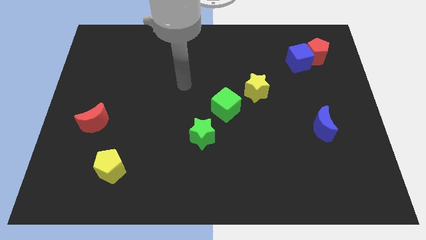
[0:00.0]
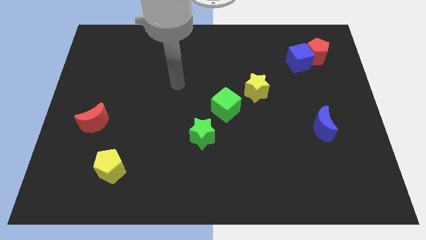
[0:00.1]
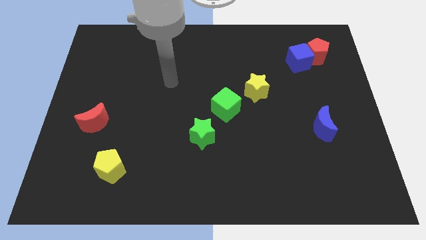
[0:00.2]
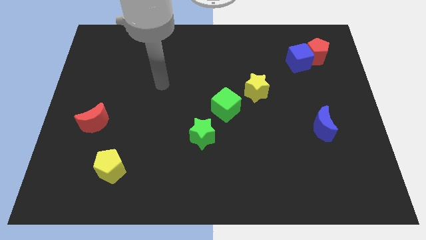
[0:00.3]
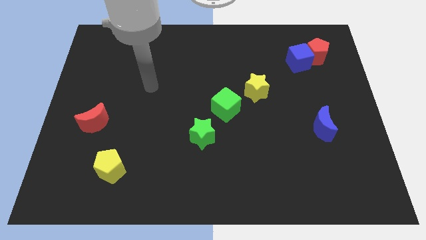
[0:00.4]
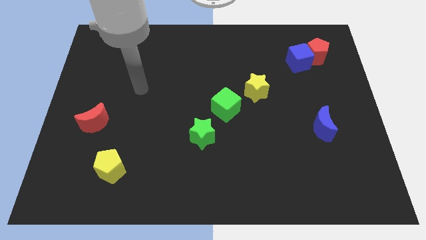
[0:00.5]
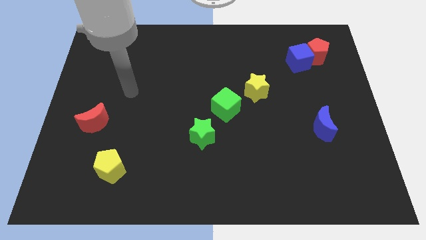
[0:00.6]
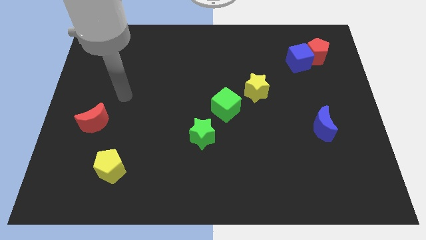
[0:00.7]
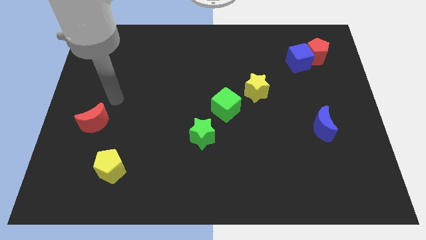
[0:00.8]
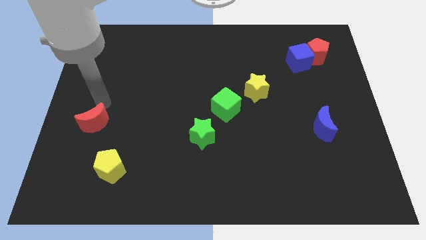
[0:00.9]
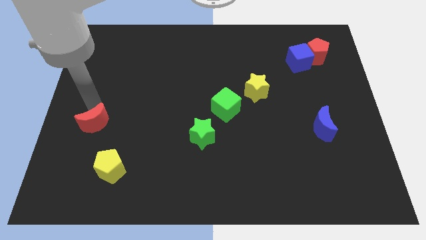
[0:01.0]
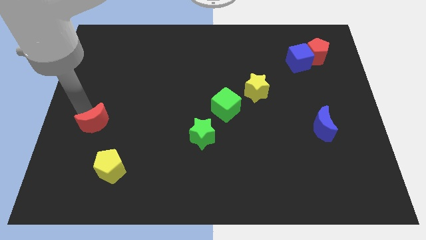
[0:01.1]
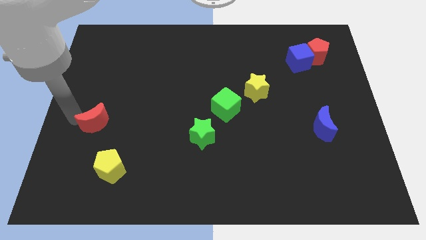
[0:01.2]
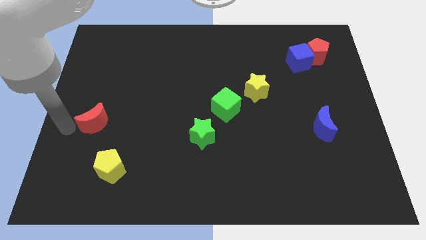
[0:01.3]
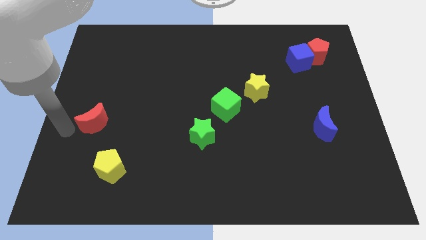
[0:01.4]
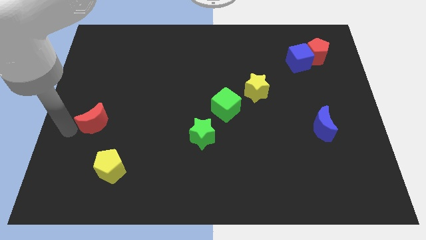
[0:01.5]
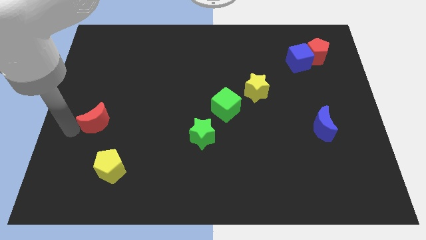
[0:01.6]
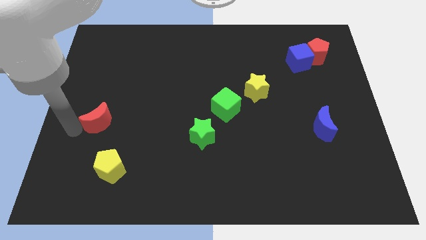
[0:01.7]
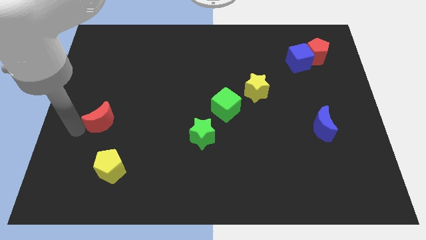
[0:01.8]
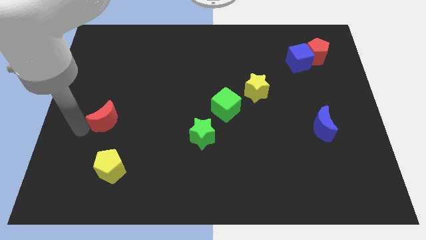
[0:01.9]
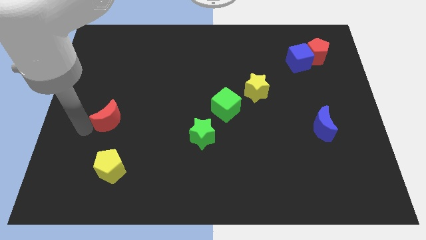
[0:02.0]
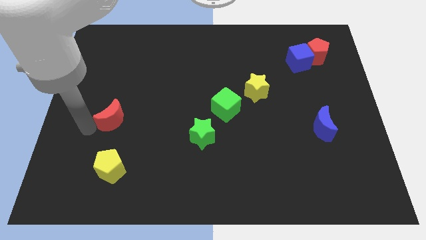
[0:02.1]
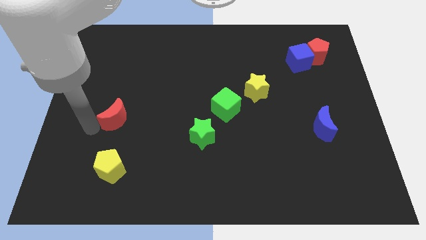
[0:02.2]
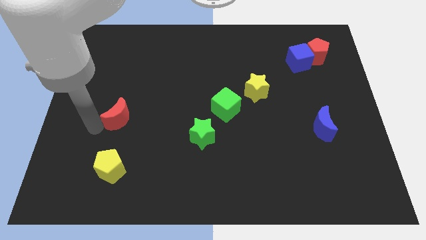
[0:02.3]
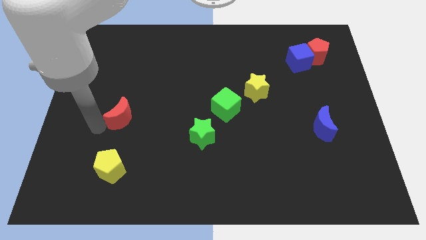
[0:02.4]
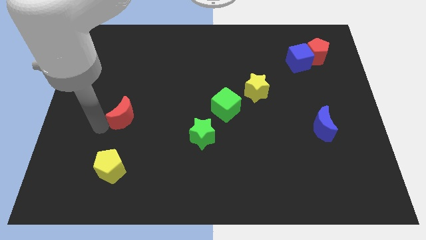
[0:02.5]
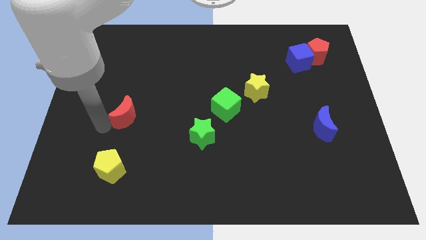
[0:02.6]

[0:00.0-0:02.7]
push the red moon to the right somewhat

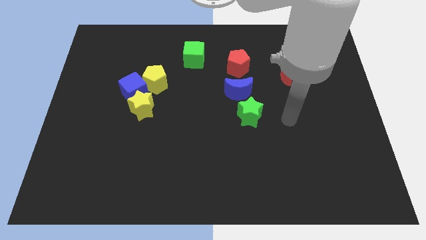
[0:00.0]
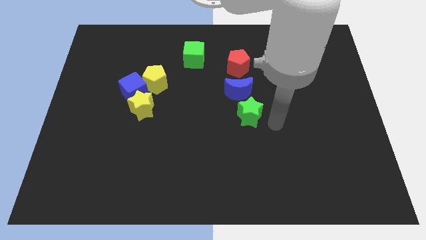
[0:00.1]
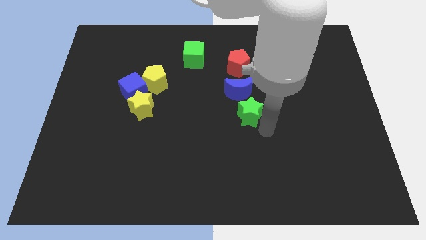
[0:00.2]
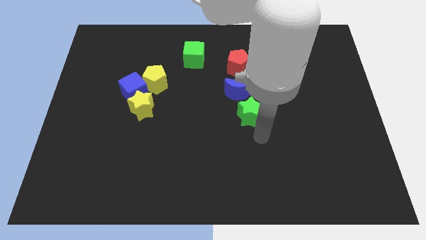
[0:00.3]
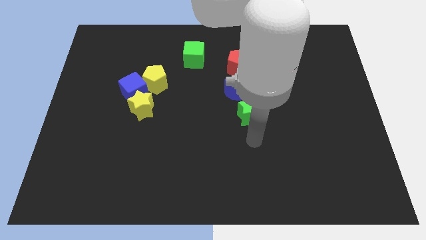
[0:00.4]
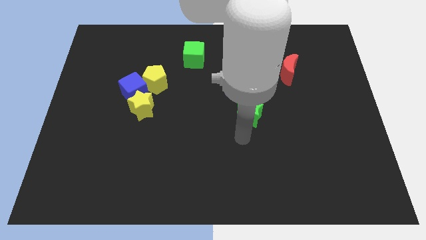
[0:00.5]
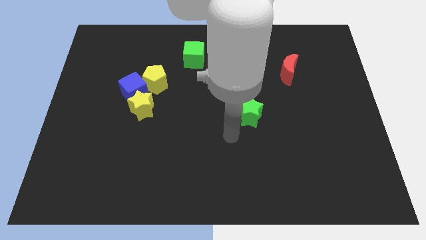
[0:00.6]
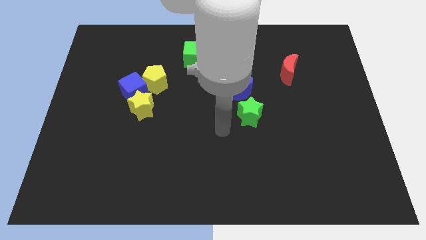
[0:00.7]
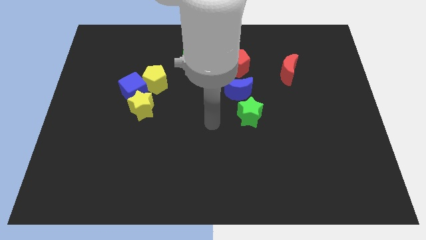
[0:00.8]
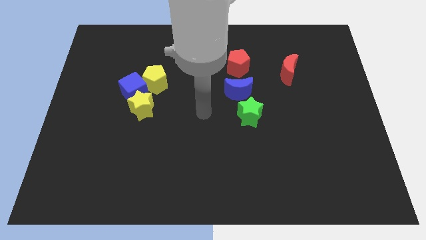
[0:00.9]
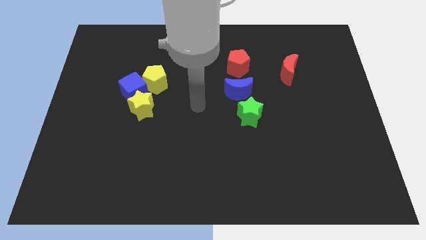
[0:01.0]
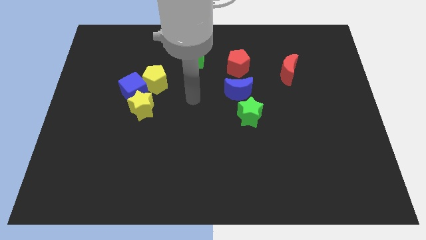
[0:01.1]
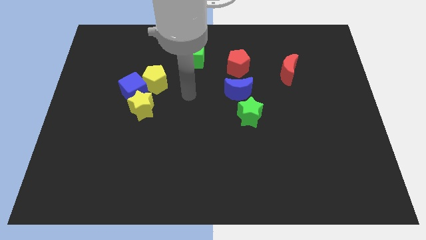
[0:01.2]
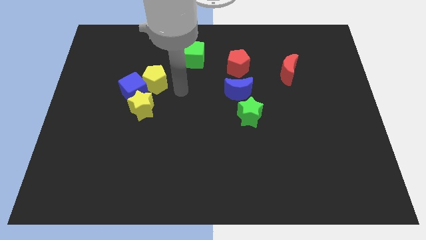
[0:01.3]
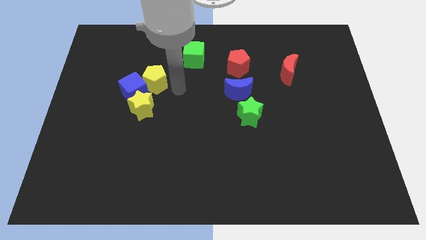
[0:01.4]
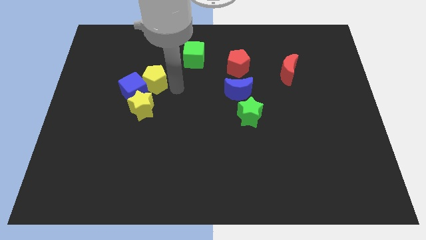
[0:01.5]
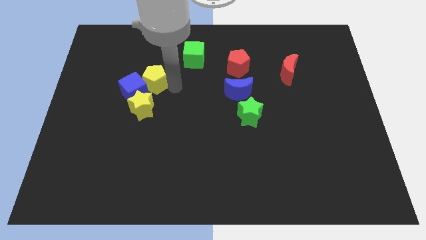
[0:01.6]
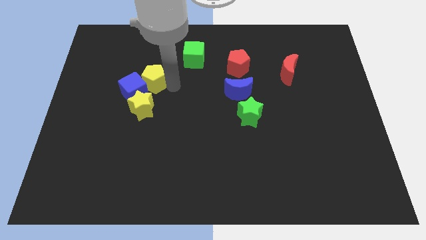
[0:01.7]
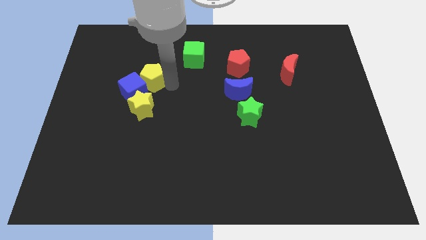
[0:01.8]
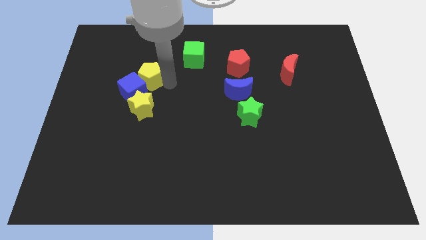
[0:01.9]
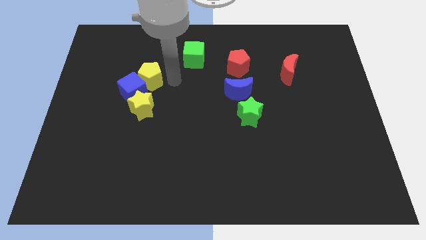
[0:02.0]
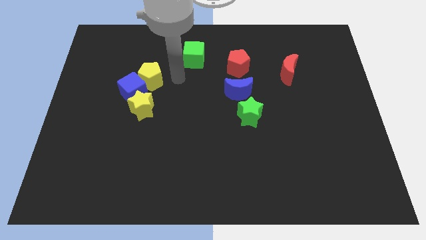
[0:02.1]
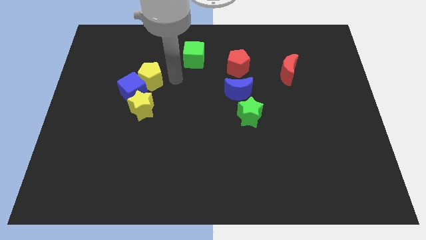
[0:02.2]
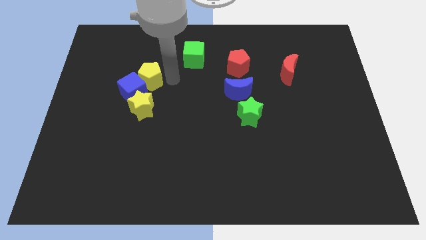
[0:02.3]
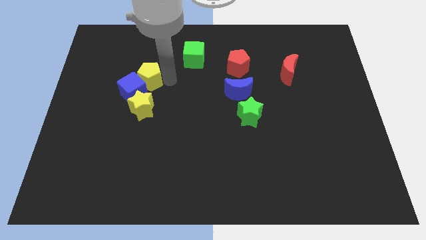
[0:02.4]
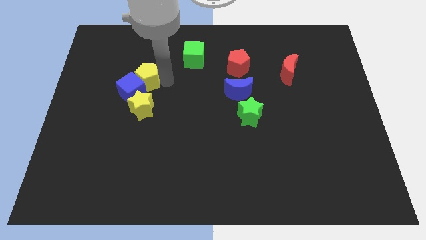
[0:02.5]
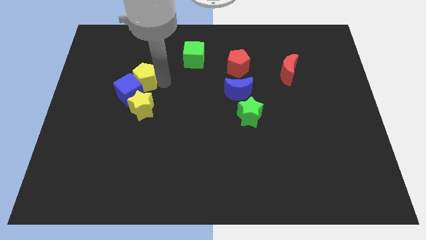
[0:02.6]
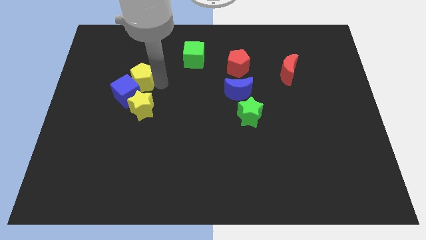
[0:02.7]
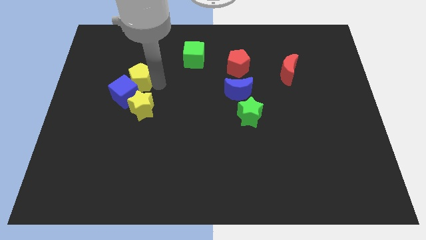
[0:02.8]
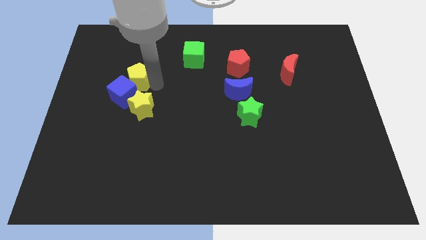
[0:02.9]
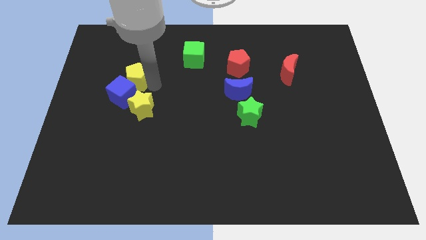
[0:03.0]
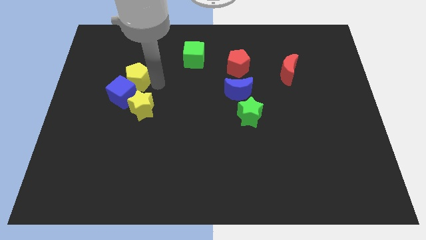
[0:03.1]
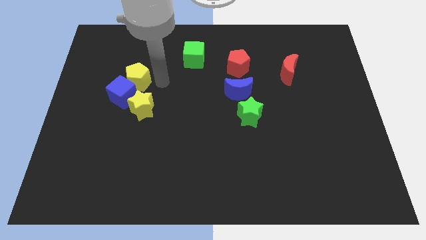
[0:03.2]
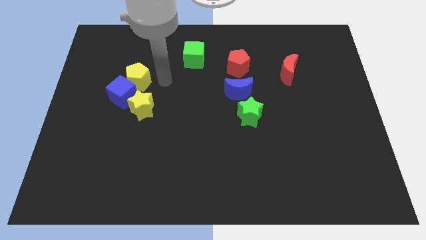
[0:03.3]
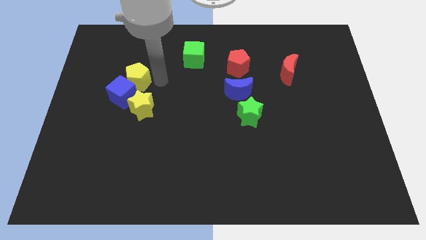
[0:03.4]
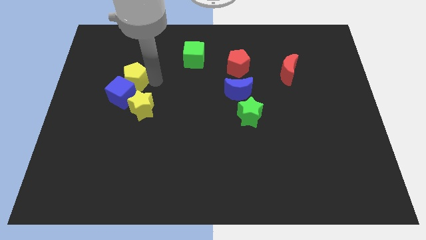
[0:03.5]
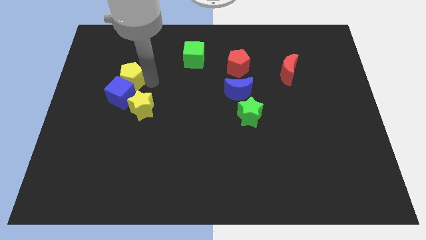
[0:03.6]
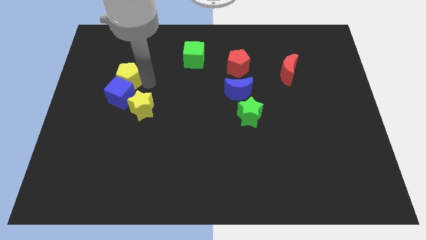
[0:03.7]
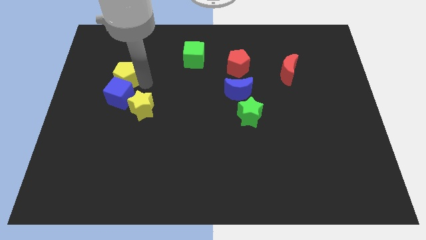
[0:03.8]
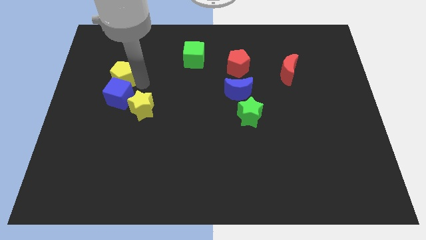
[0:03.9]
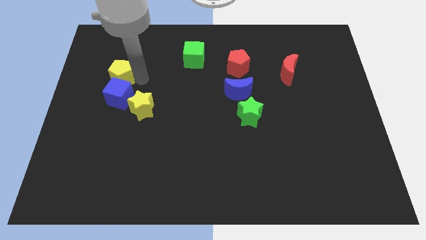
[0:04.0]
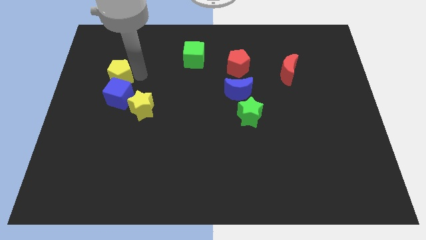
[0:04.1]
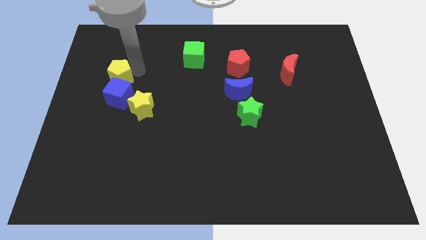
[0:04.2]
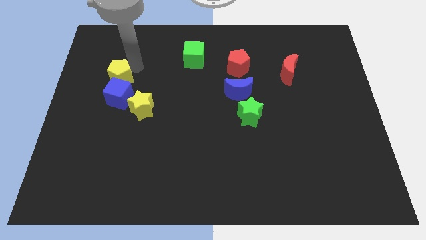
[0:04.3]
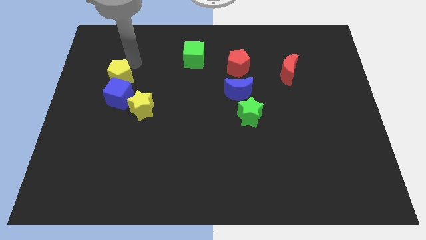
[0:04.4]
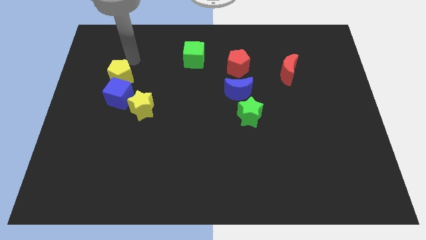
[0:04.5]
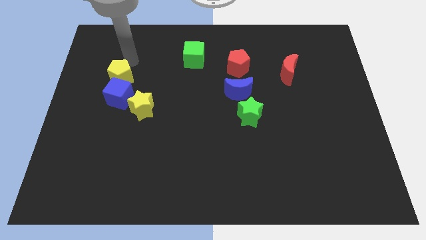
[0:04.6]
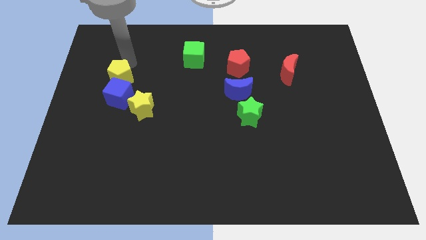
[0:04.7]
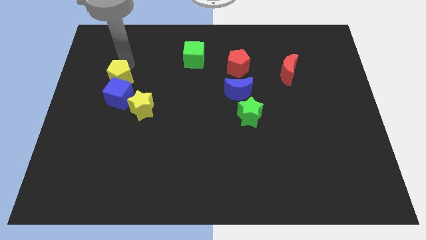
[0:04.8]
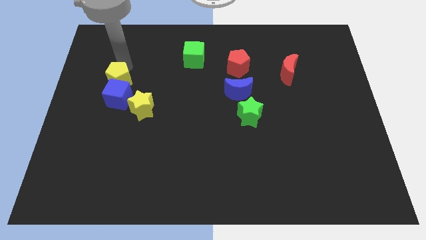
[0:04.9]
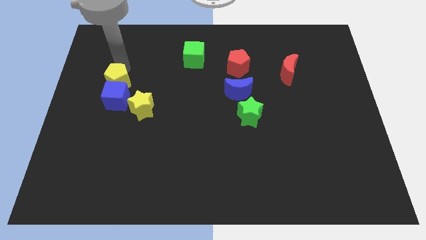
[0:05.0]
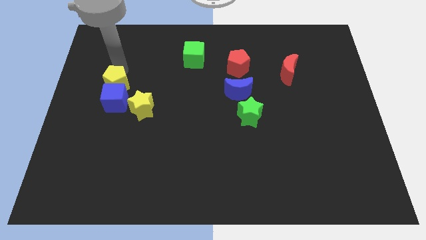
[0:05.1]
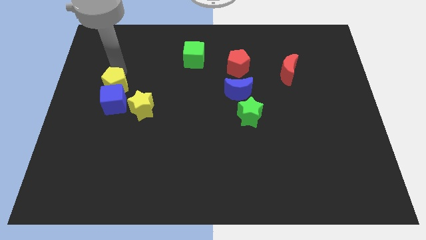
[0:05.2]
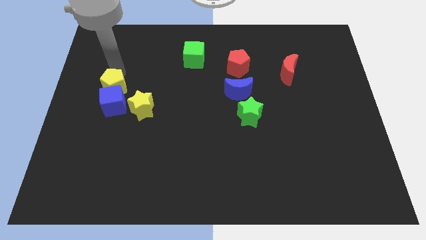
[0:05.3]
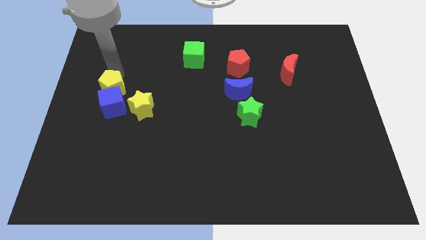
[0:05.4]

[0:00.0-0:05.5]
slide the yellow pentagon somewhat downwards and left diagonally
